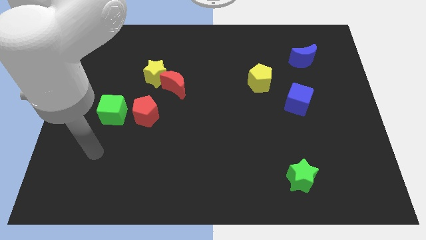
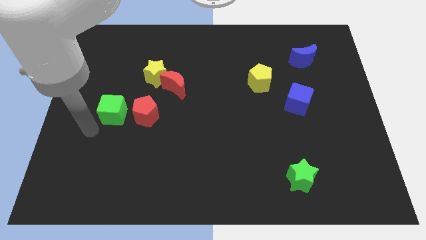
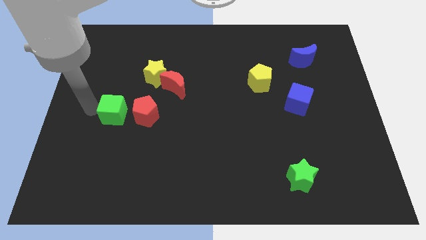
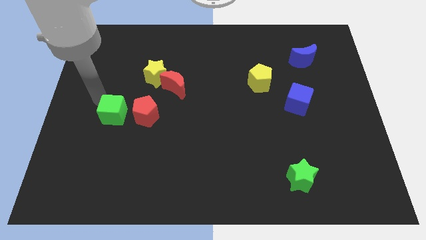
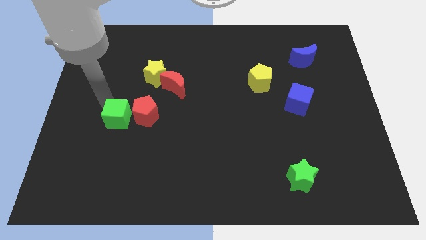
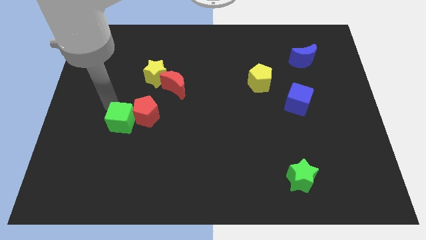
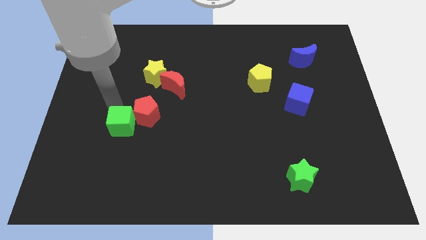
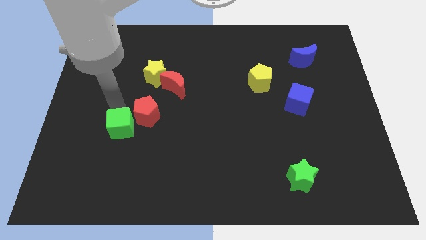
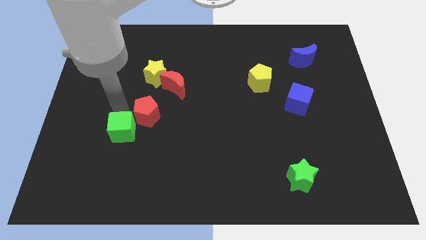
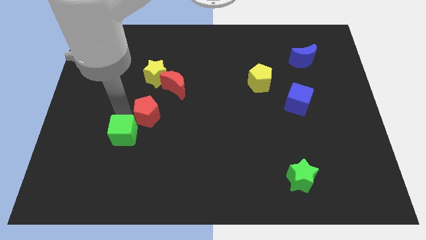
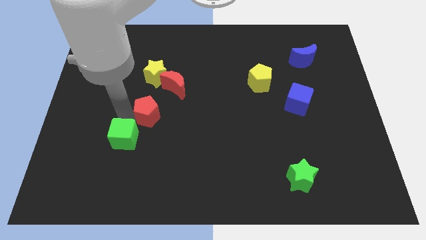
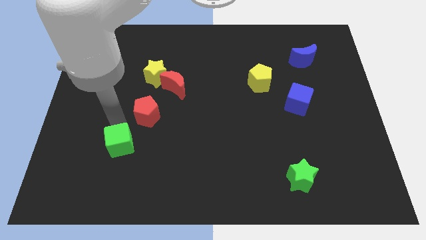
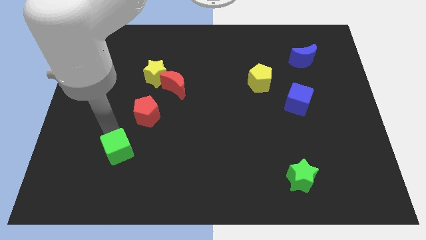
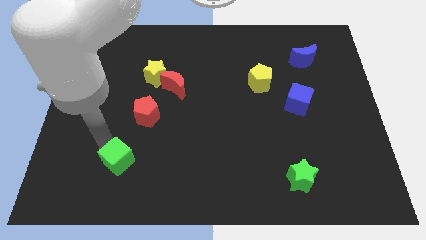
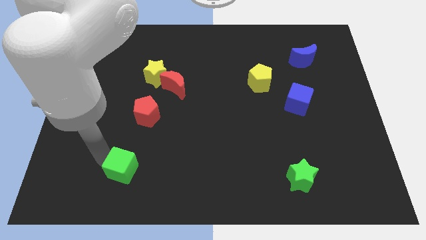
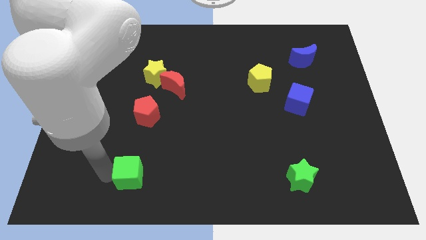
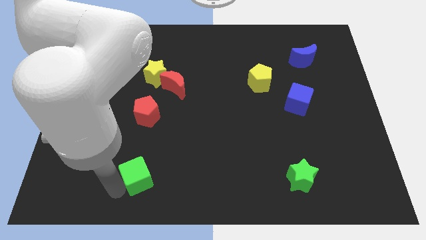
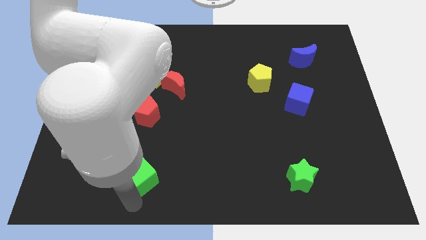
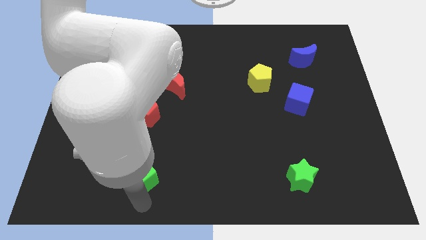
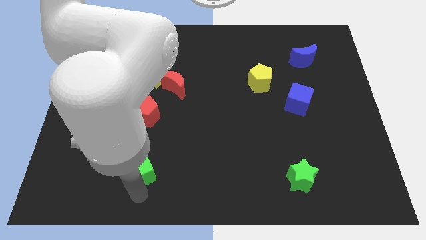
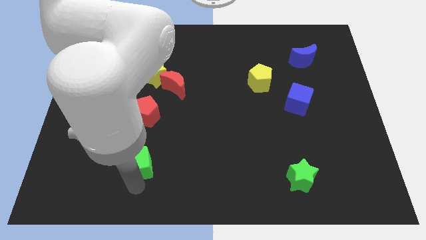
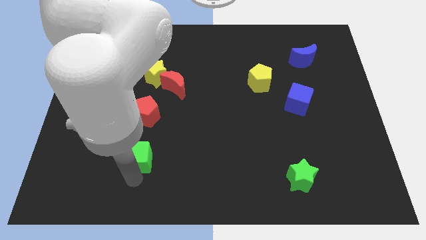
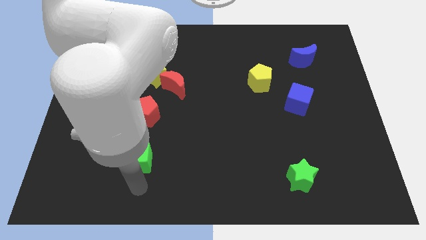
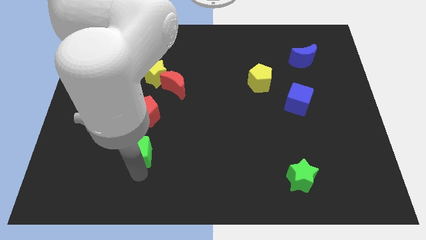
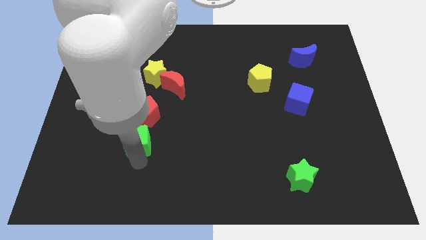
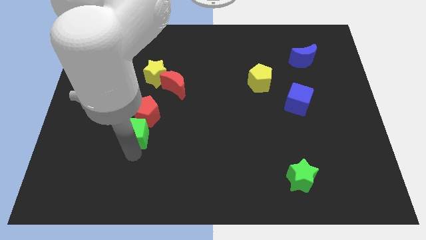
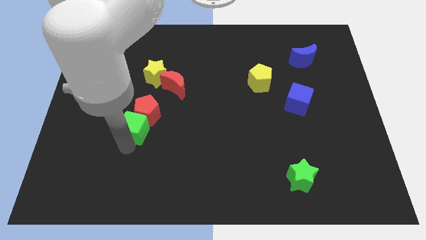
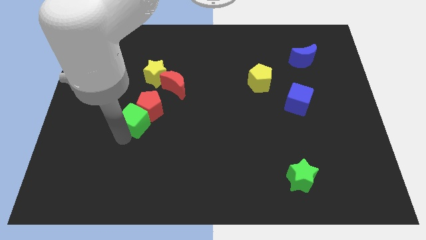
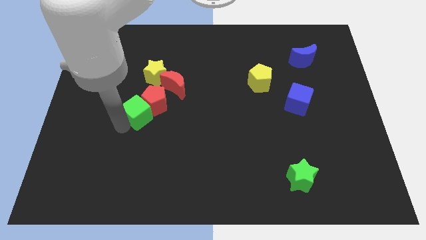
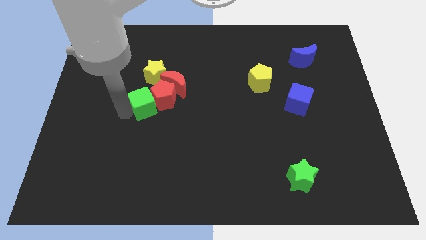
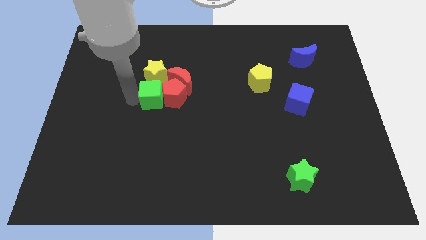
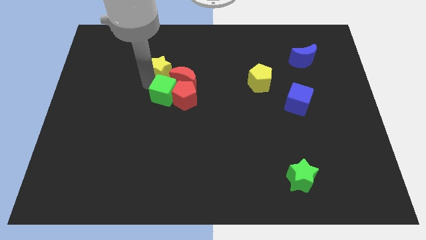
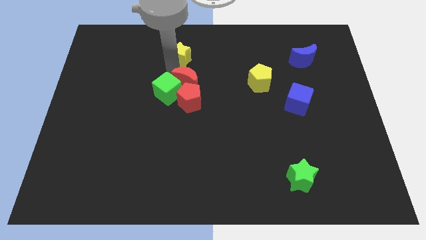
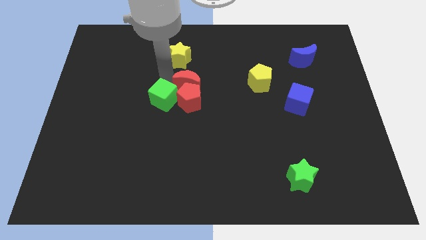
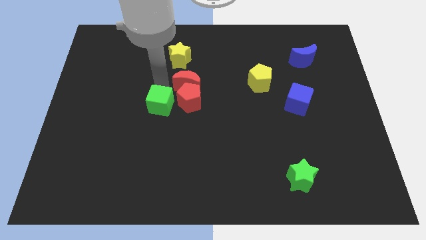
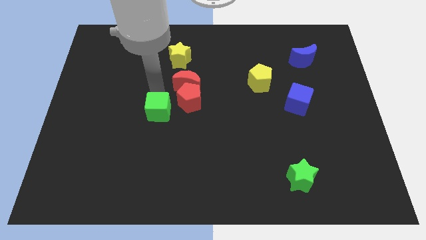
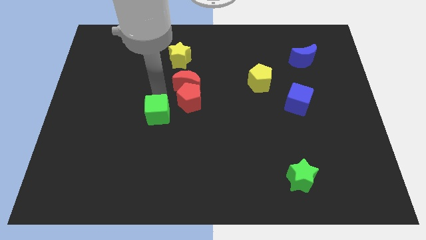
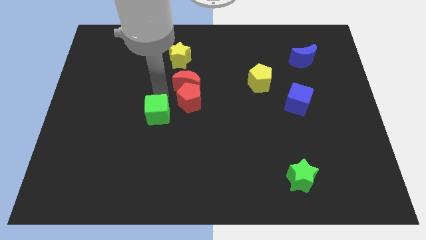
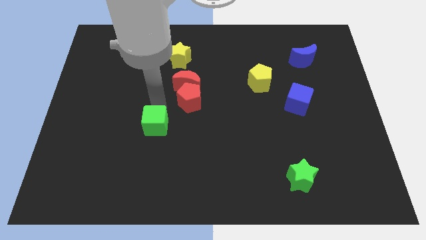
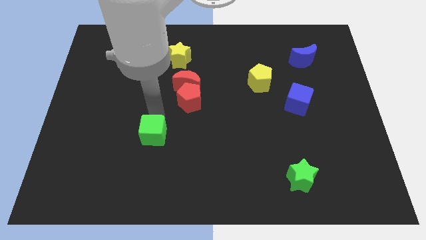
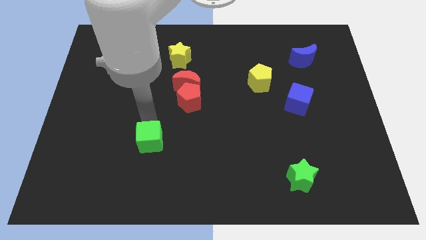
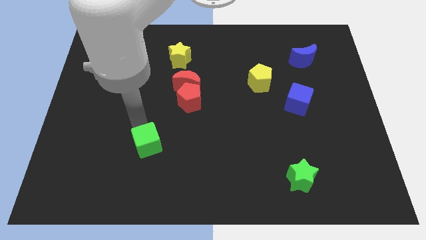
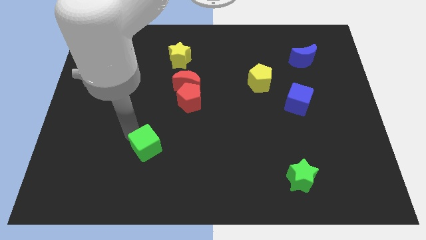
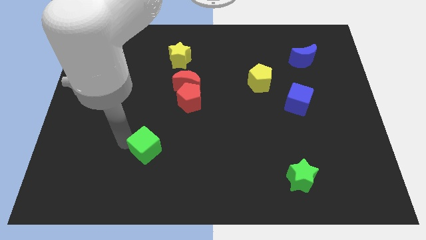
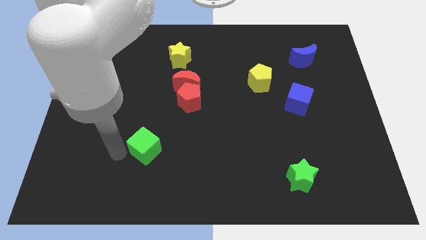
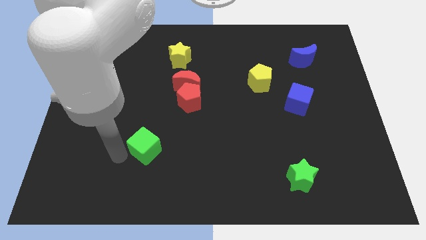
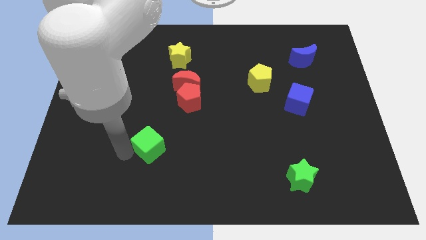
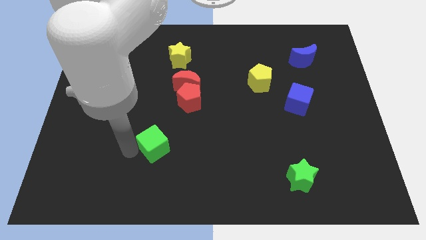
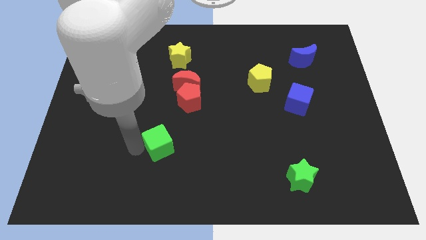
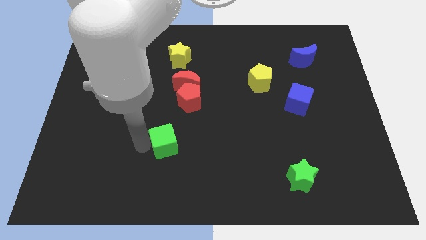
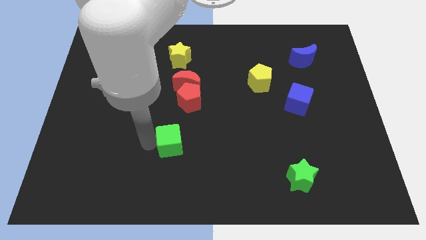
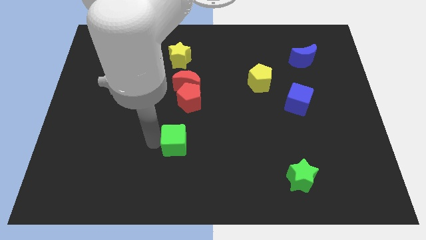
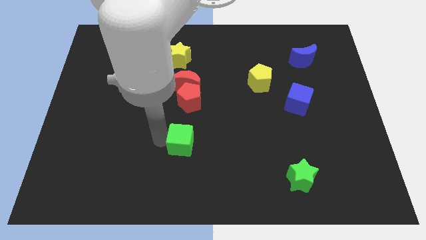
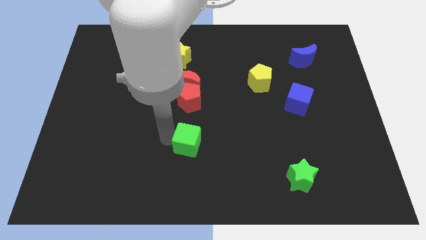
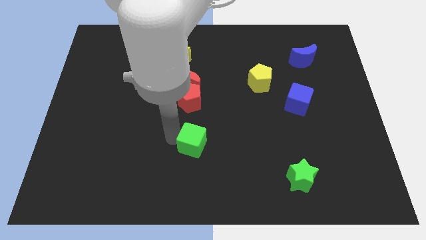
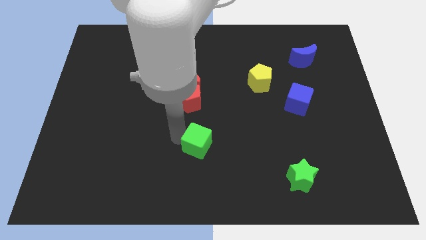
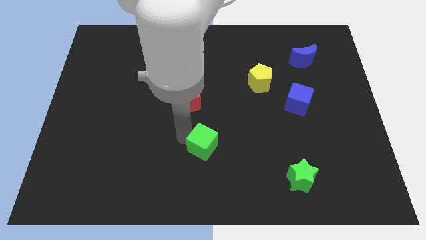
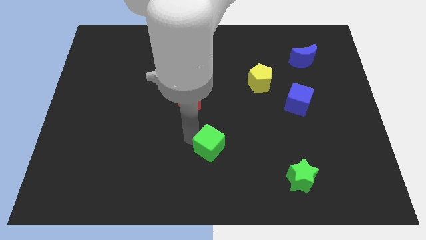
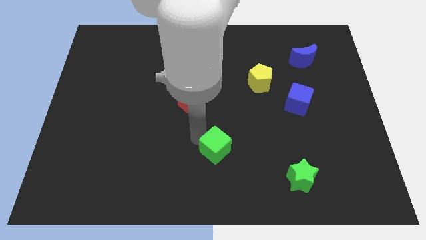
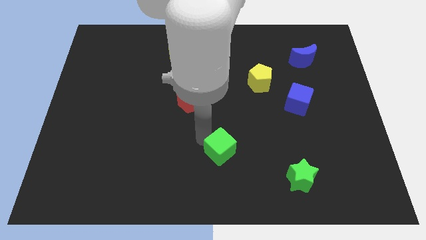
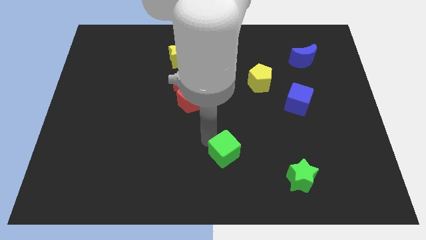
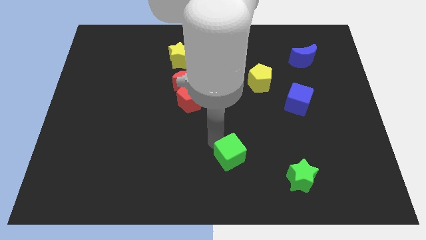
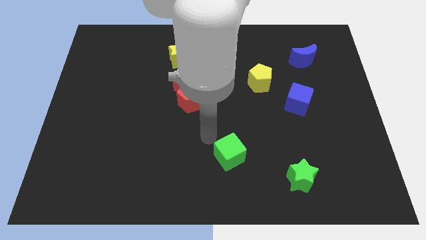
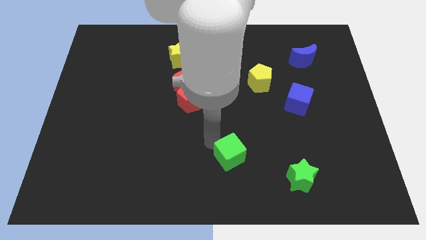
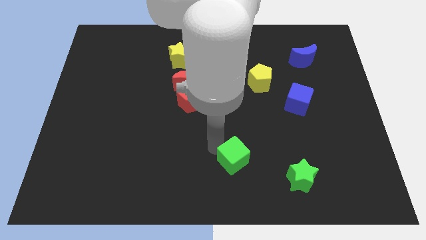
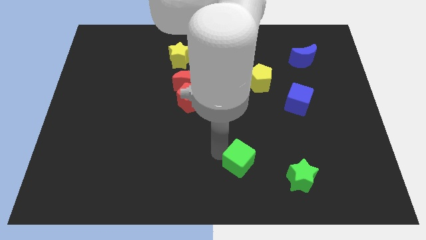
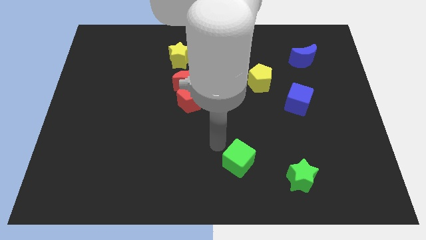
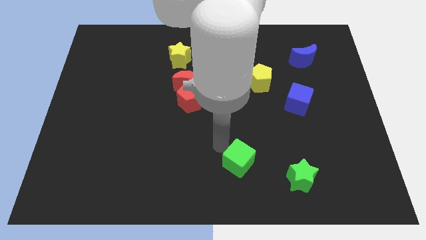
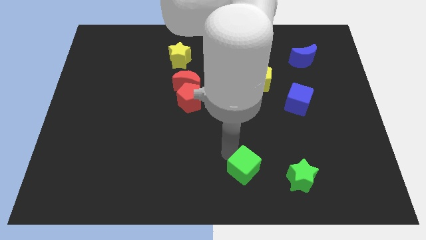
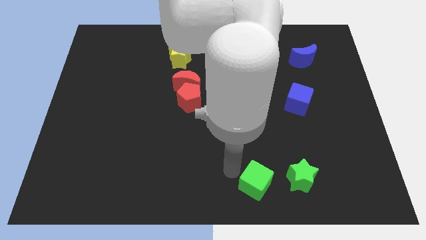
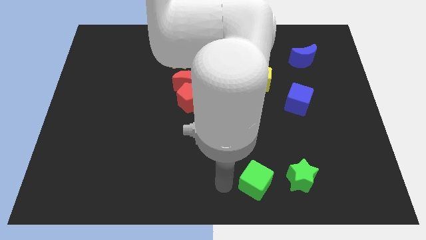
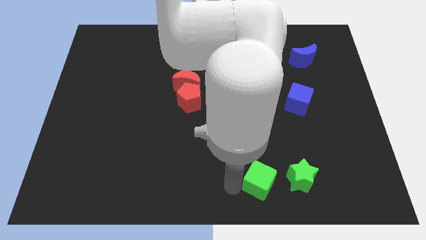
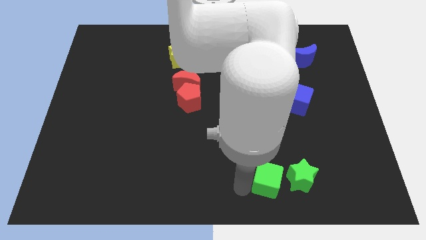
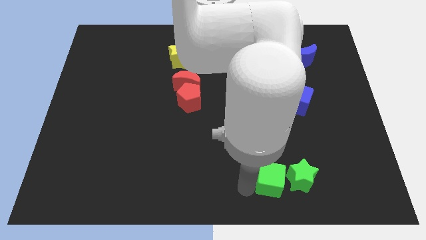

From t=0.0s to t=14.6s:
put the green cube to the green star

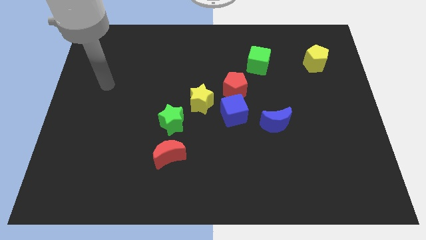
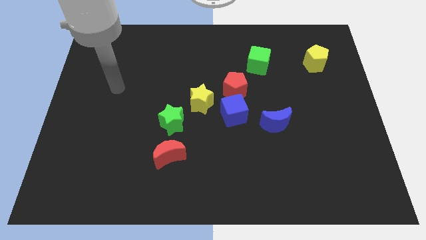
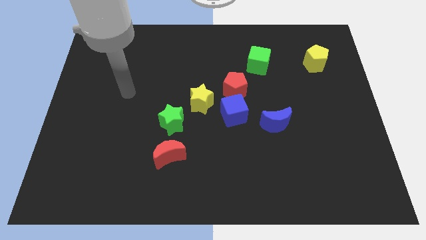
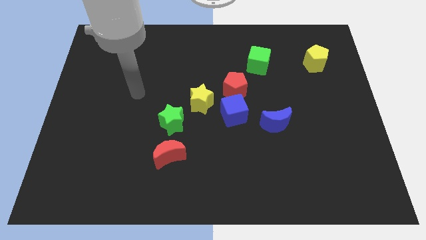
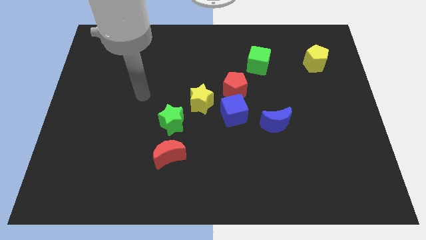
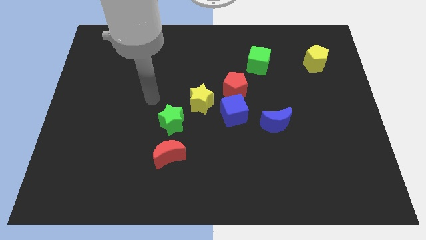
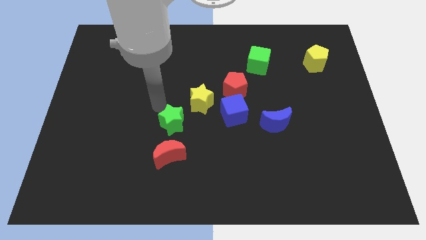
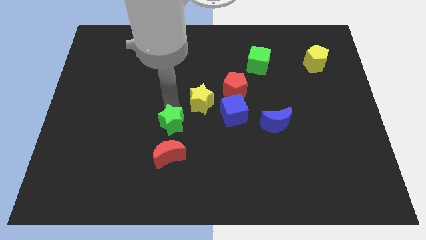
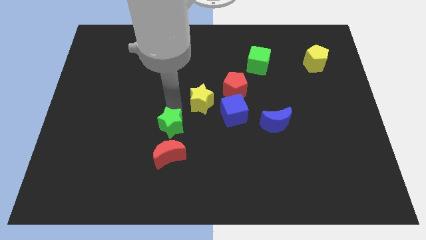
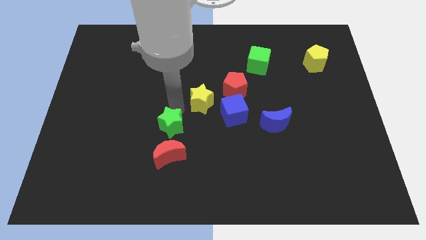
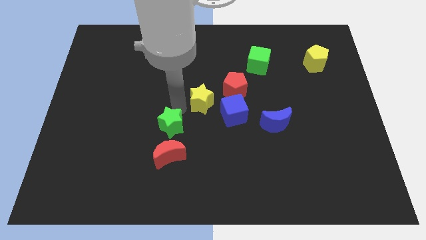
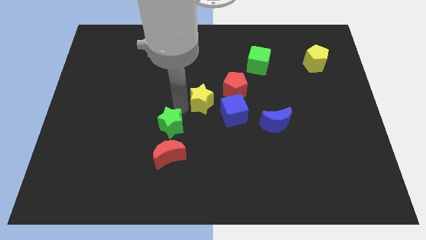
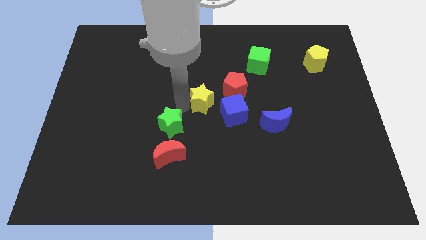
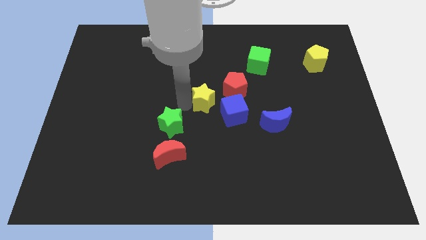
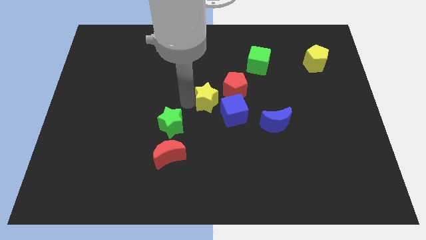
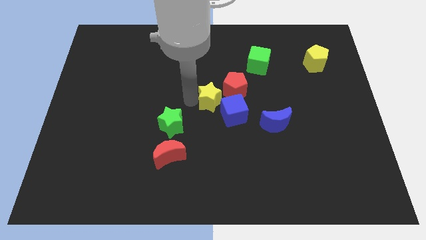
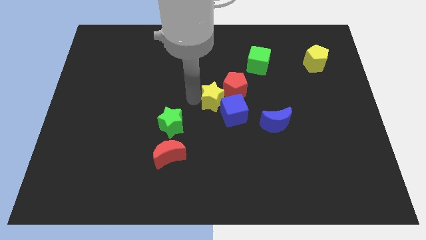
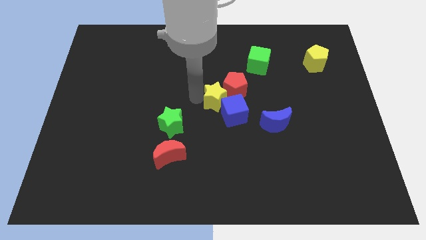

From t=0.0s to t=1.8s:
slide the yellow star towards the red pentagon
